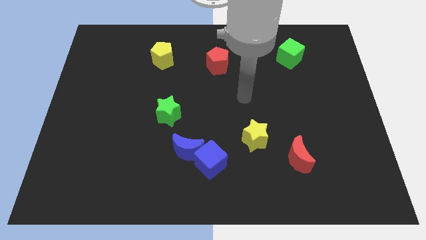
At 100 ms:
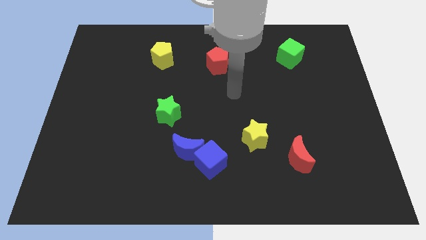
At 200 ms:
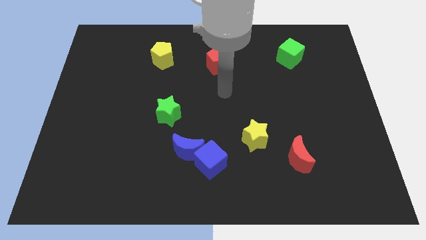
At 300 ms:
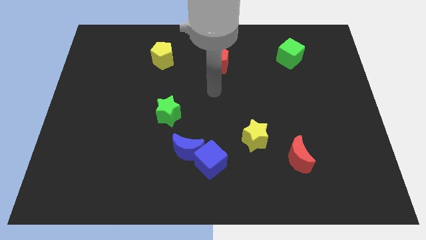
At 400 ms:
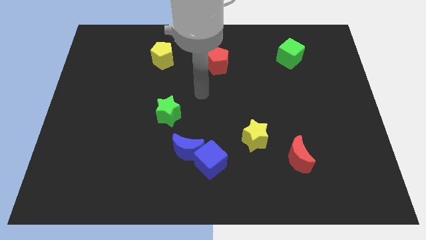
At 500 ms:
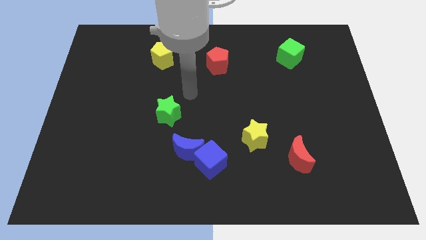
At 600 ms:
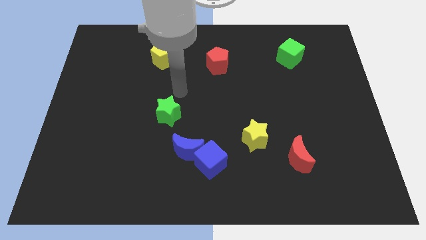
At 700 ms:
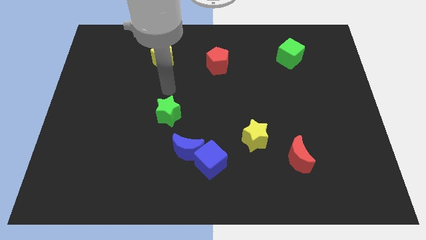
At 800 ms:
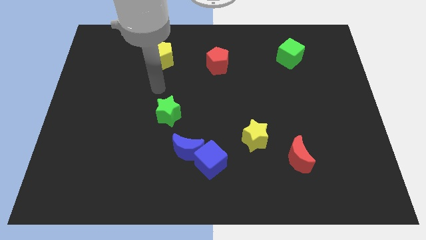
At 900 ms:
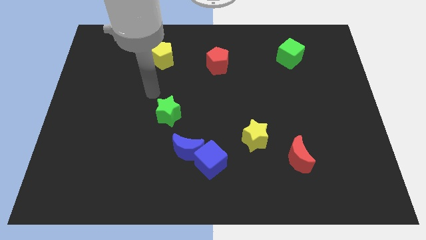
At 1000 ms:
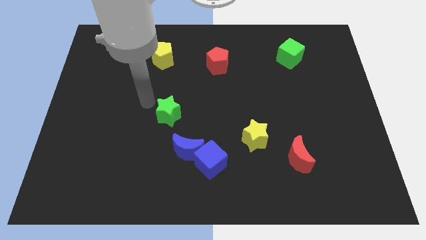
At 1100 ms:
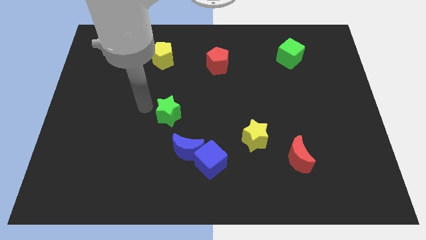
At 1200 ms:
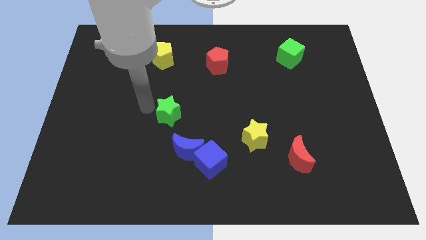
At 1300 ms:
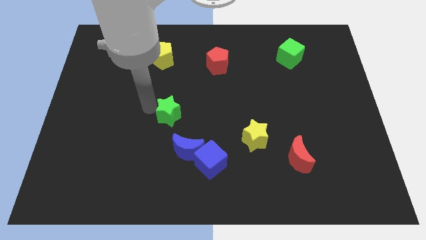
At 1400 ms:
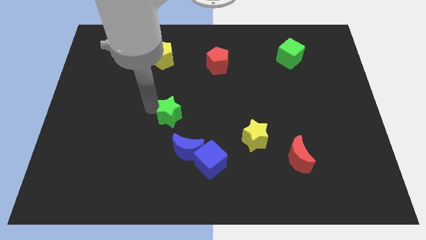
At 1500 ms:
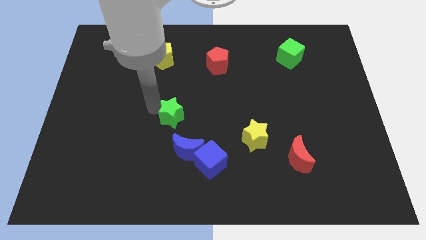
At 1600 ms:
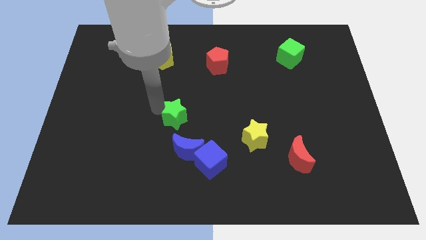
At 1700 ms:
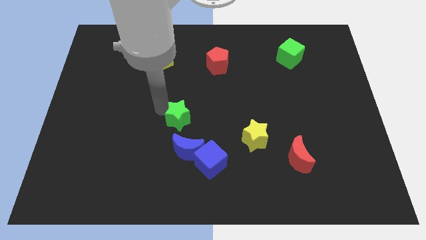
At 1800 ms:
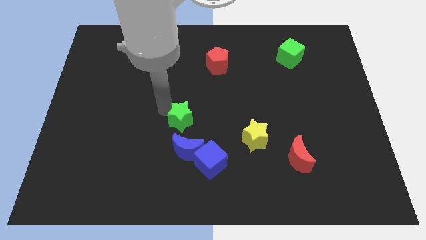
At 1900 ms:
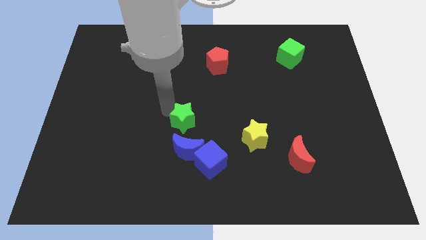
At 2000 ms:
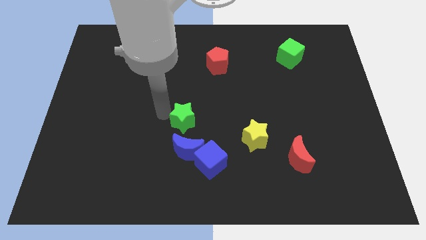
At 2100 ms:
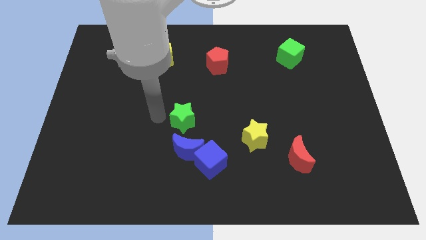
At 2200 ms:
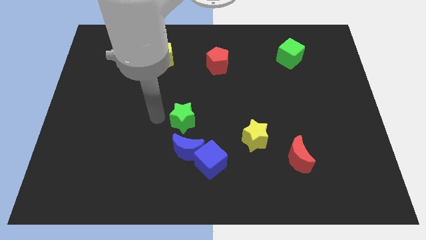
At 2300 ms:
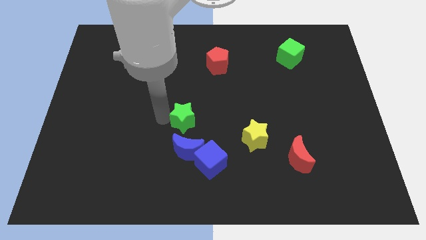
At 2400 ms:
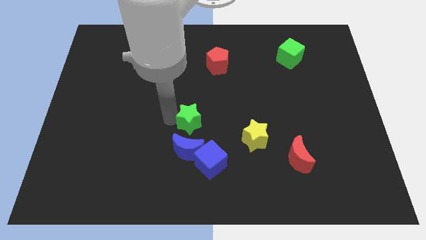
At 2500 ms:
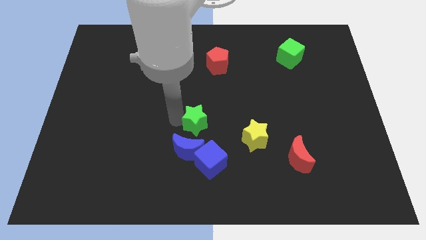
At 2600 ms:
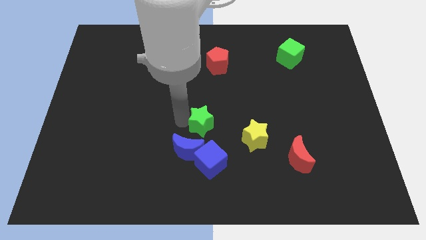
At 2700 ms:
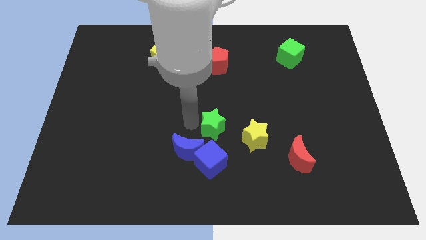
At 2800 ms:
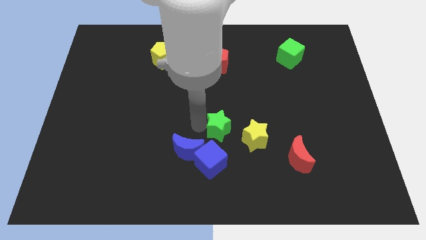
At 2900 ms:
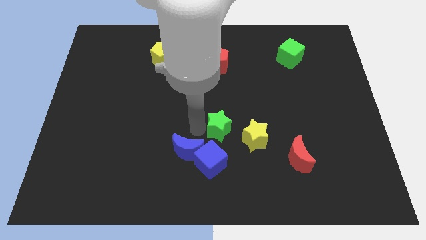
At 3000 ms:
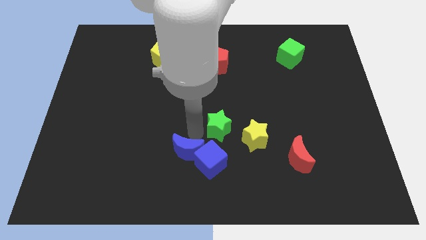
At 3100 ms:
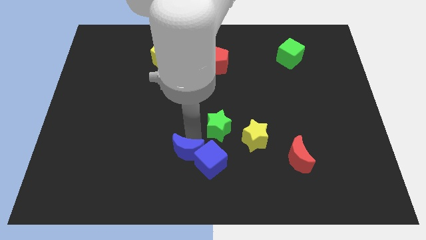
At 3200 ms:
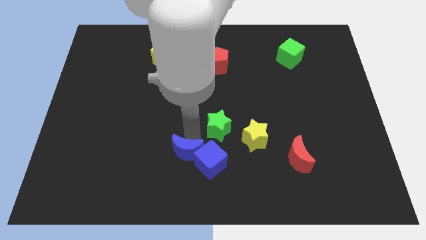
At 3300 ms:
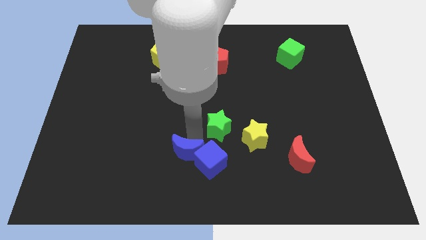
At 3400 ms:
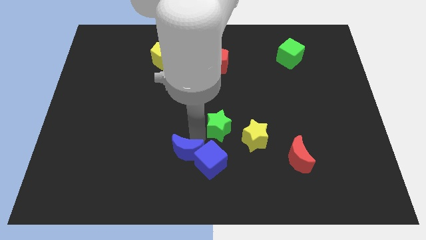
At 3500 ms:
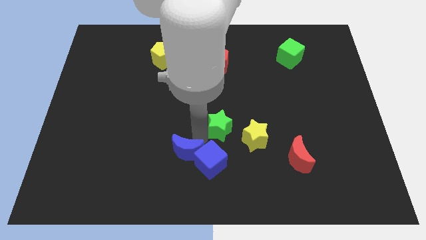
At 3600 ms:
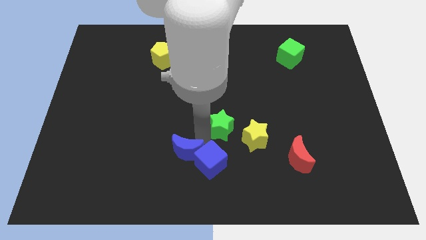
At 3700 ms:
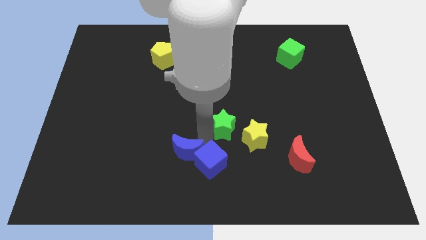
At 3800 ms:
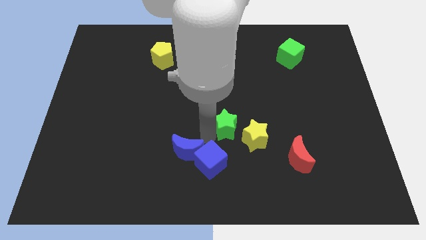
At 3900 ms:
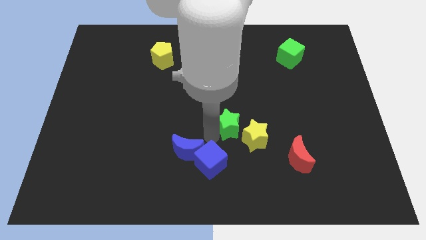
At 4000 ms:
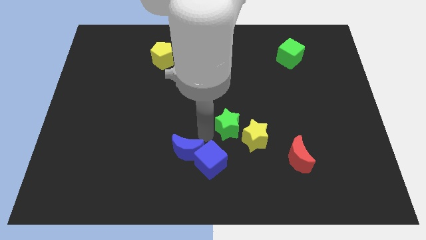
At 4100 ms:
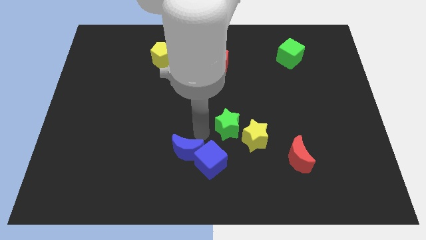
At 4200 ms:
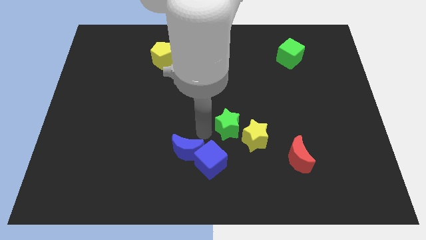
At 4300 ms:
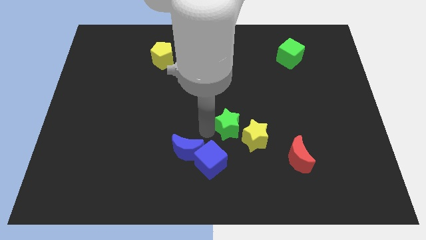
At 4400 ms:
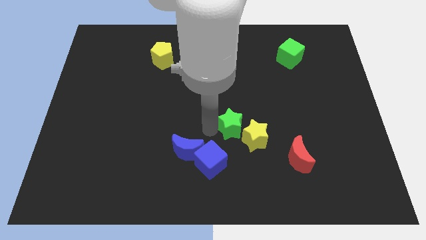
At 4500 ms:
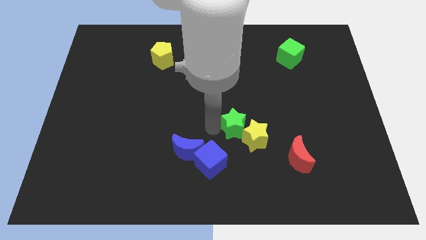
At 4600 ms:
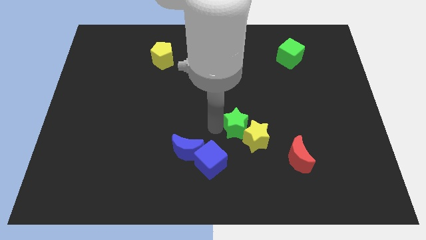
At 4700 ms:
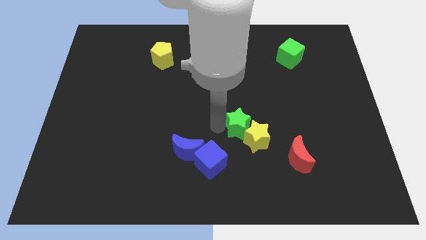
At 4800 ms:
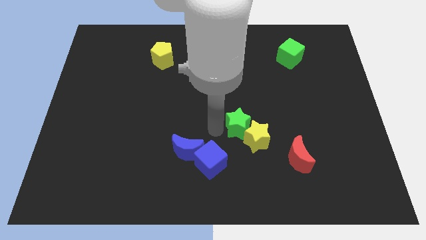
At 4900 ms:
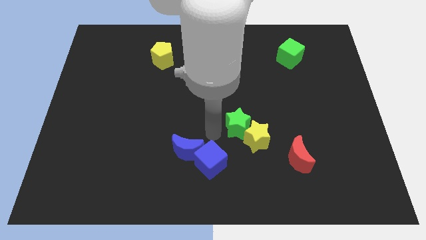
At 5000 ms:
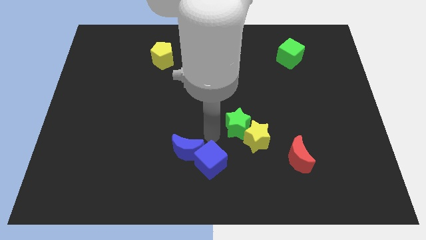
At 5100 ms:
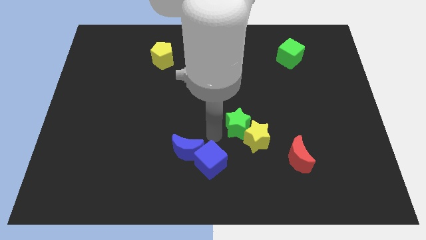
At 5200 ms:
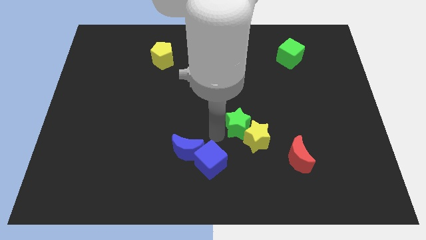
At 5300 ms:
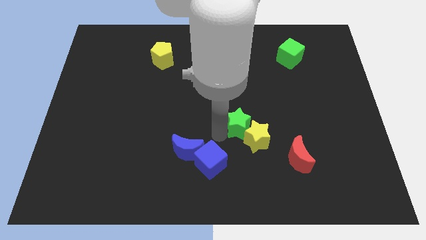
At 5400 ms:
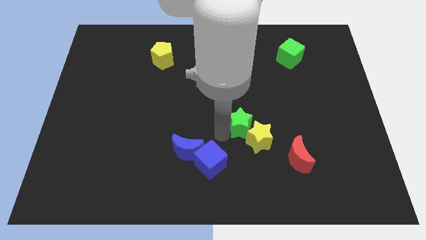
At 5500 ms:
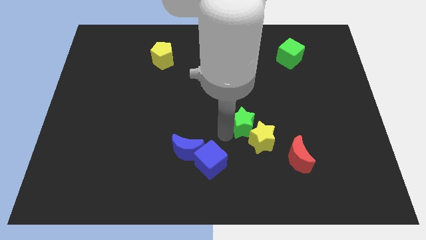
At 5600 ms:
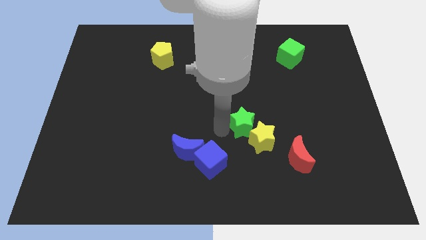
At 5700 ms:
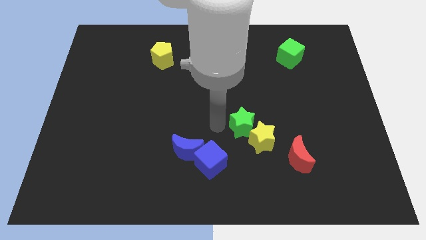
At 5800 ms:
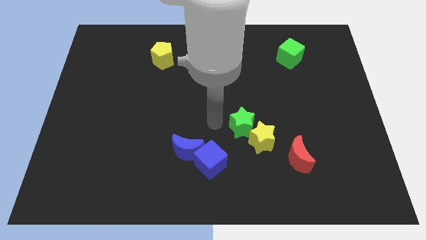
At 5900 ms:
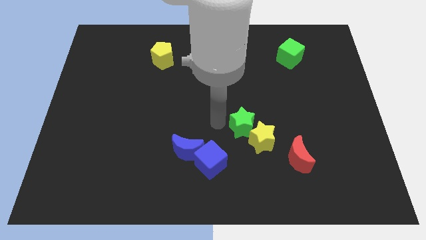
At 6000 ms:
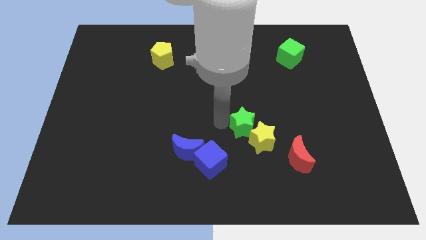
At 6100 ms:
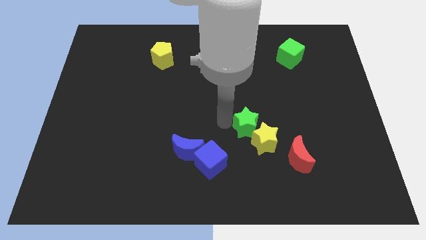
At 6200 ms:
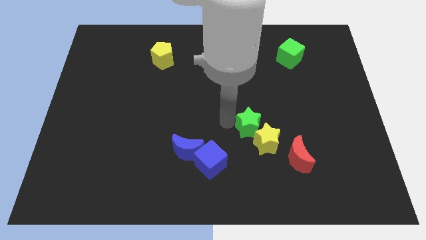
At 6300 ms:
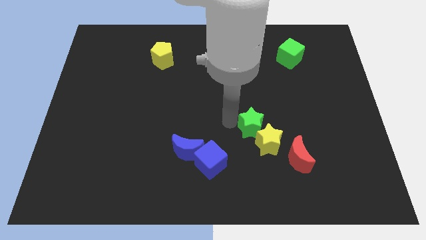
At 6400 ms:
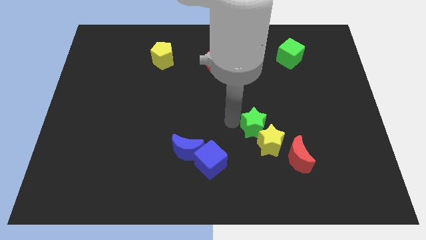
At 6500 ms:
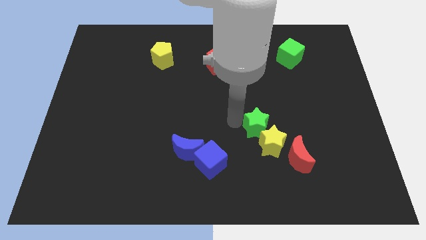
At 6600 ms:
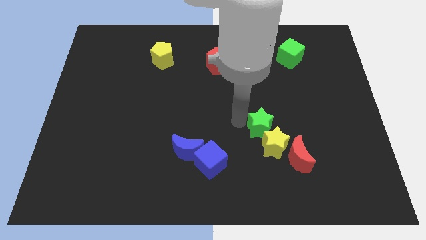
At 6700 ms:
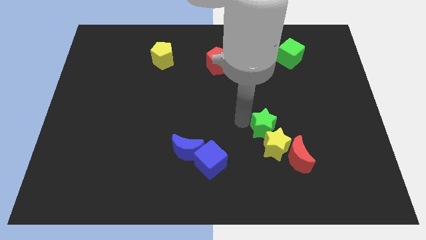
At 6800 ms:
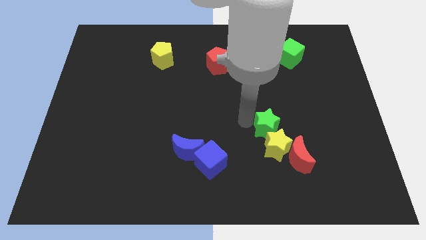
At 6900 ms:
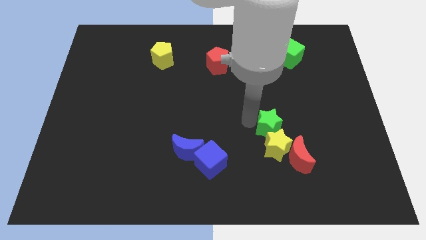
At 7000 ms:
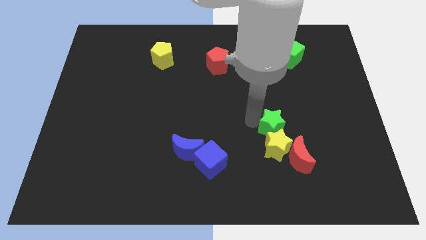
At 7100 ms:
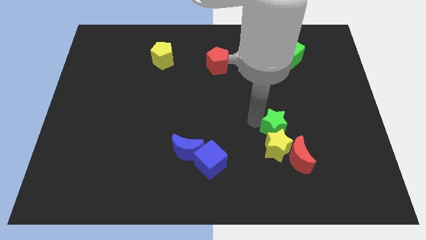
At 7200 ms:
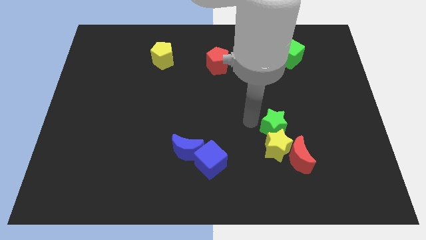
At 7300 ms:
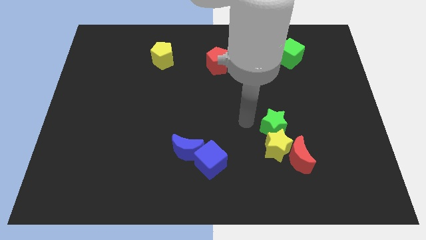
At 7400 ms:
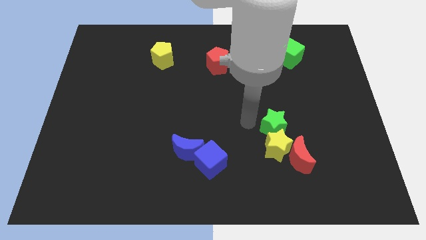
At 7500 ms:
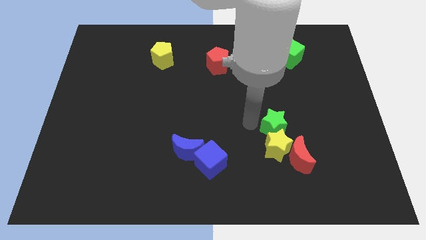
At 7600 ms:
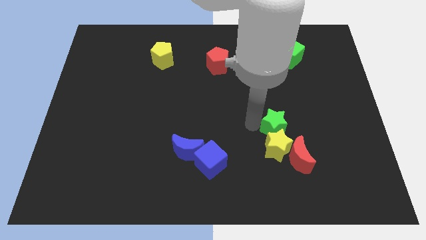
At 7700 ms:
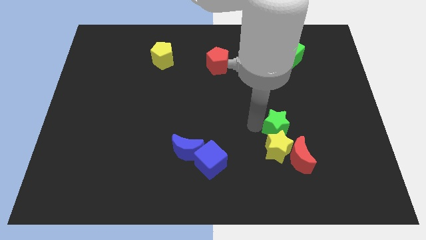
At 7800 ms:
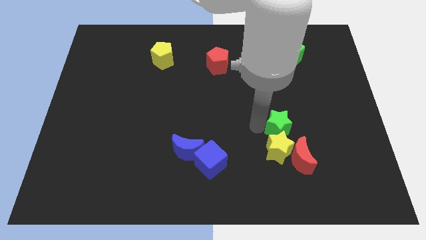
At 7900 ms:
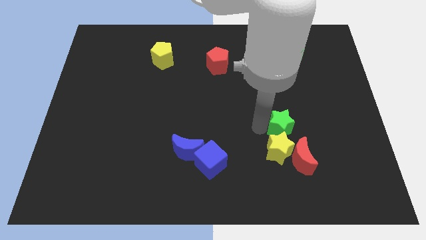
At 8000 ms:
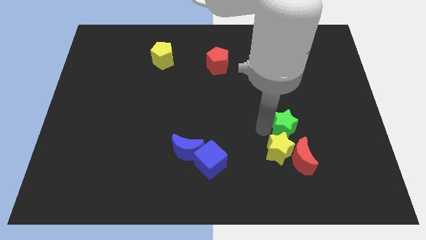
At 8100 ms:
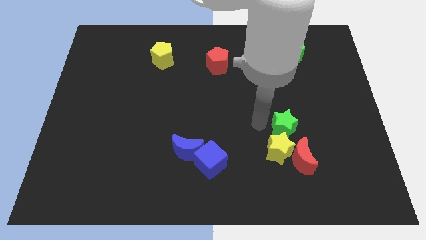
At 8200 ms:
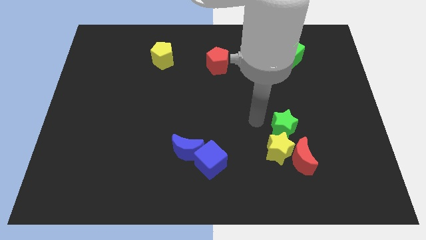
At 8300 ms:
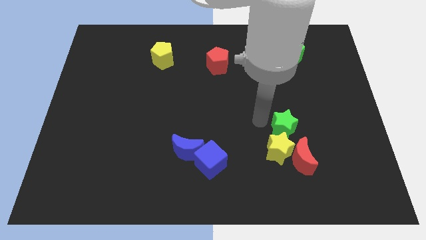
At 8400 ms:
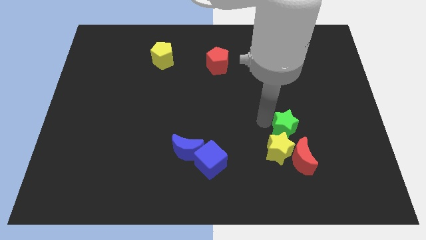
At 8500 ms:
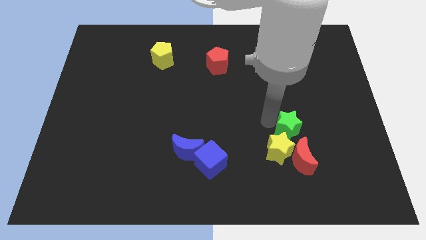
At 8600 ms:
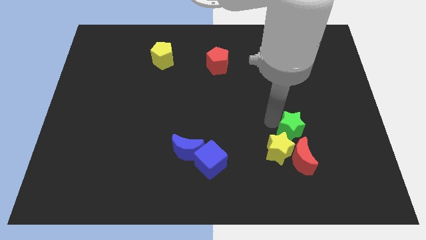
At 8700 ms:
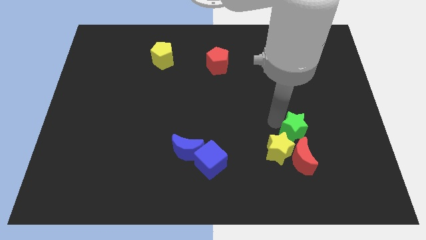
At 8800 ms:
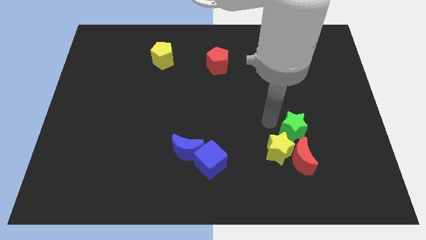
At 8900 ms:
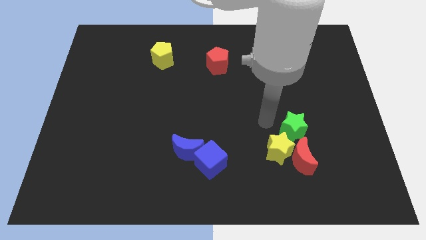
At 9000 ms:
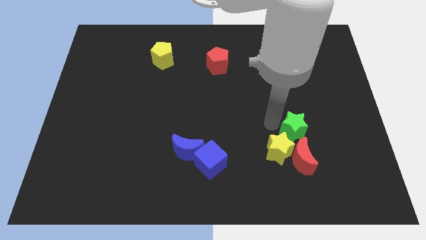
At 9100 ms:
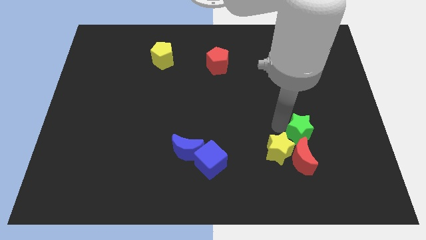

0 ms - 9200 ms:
push the green star diagonally up and to the right of the red moon
